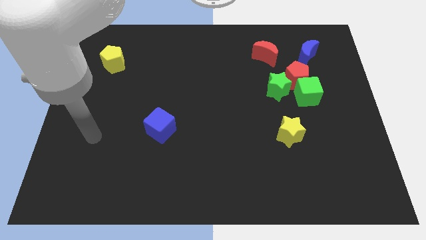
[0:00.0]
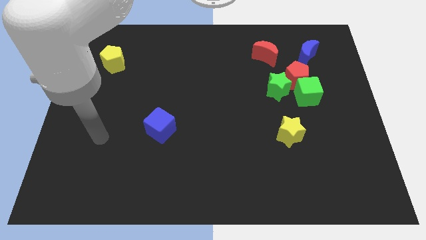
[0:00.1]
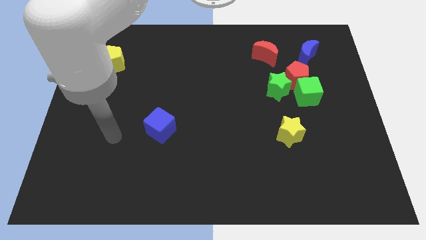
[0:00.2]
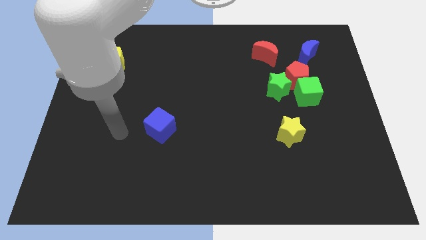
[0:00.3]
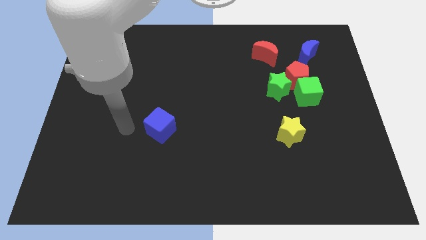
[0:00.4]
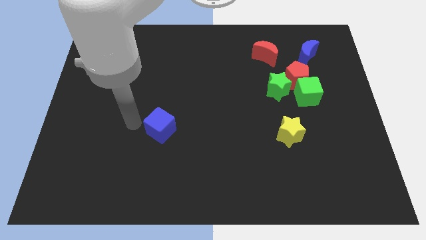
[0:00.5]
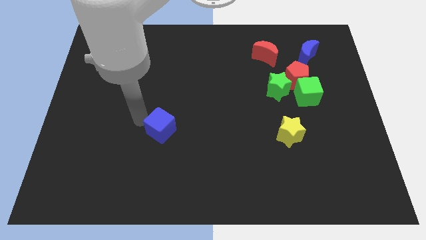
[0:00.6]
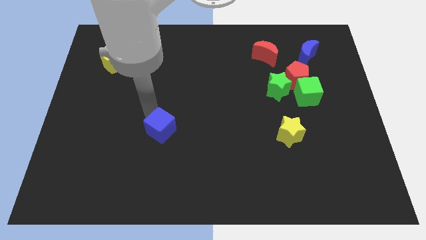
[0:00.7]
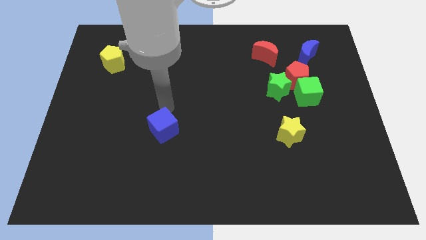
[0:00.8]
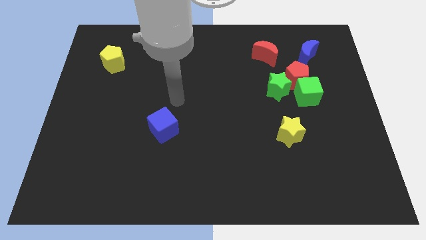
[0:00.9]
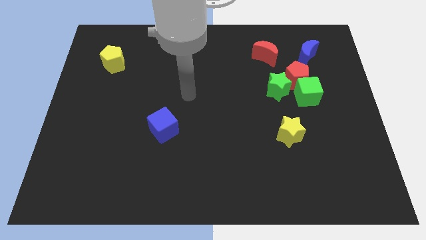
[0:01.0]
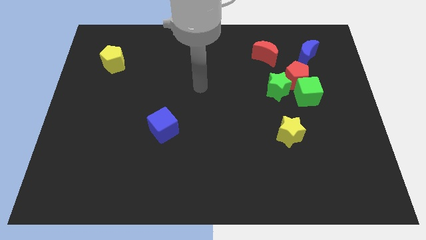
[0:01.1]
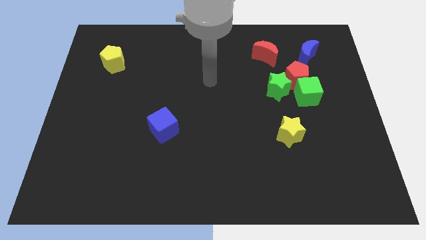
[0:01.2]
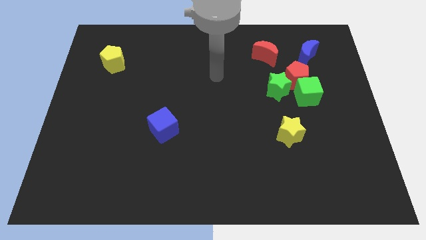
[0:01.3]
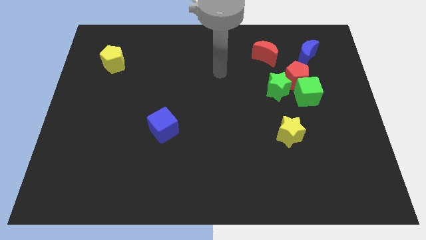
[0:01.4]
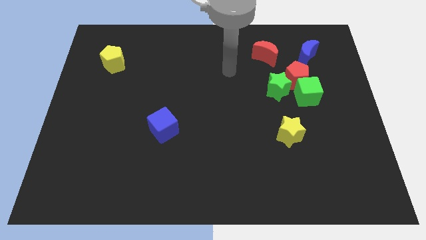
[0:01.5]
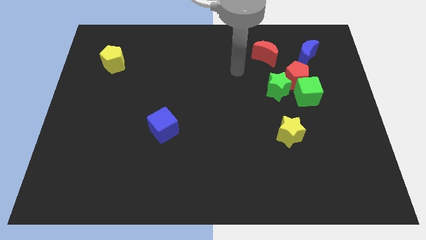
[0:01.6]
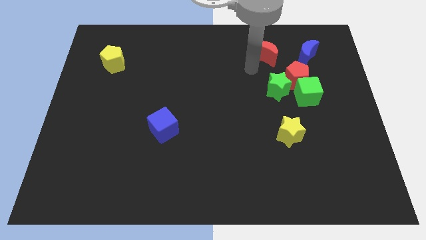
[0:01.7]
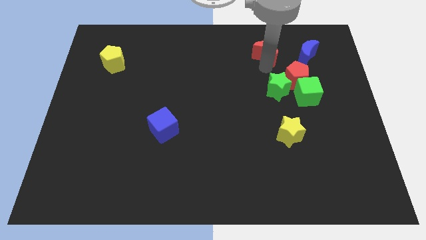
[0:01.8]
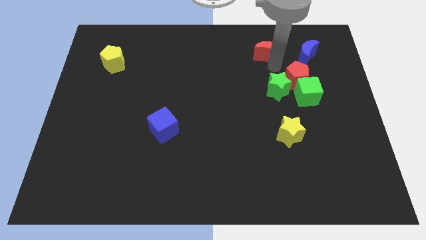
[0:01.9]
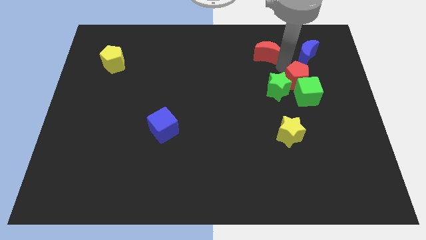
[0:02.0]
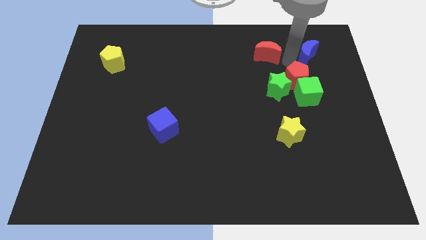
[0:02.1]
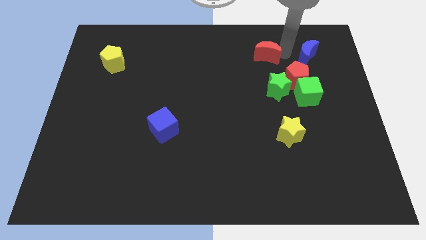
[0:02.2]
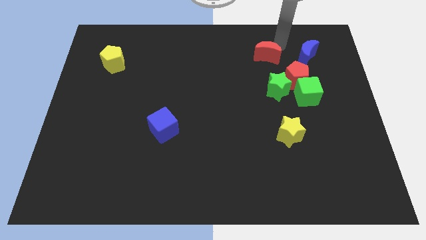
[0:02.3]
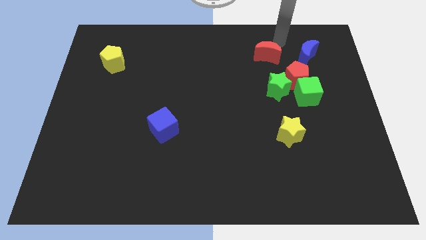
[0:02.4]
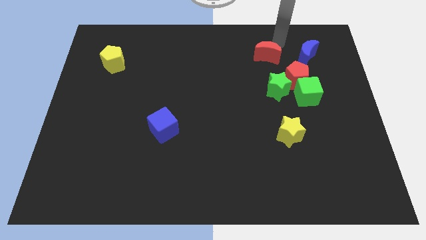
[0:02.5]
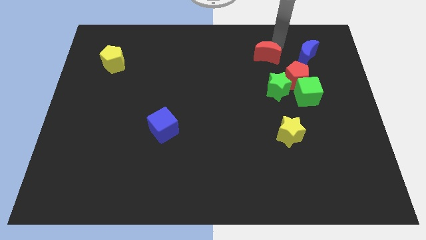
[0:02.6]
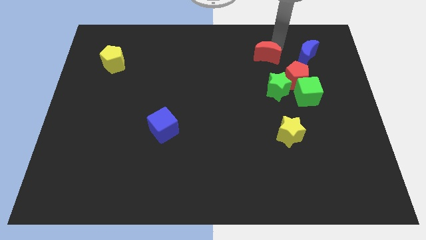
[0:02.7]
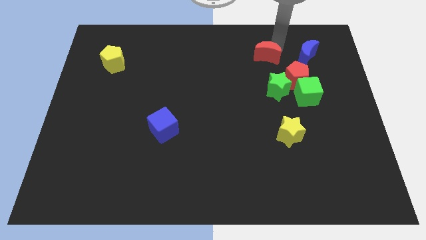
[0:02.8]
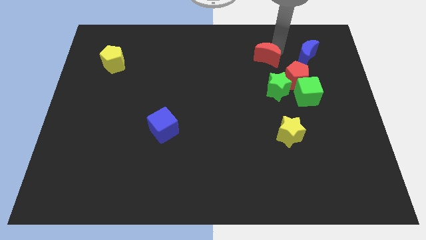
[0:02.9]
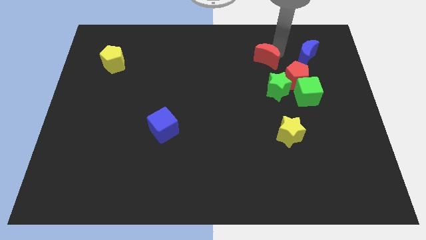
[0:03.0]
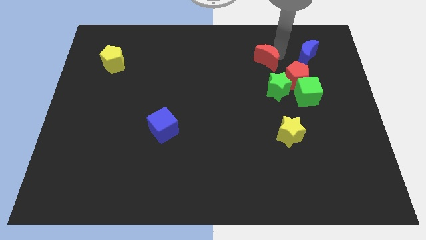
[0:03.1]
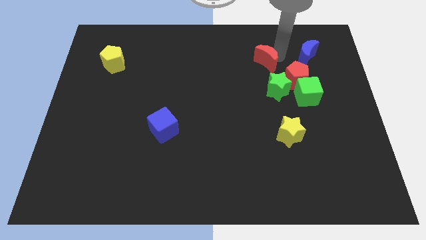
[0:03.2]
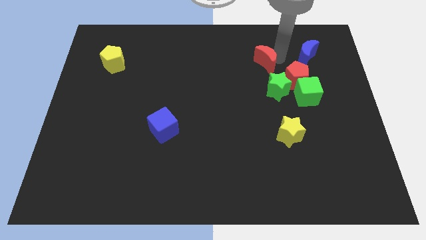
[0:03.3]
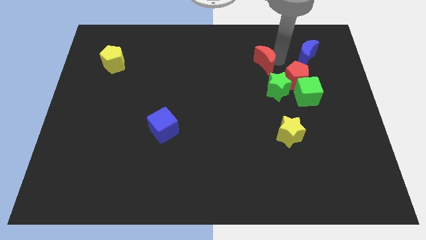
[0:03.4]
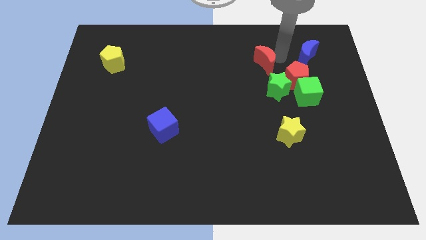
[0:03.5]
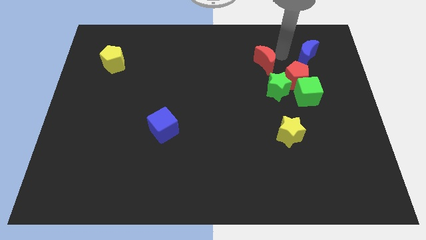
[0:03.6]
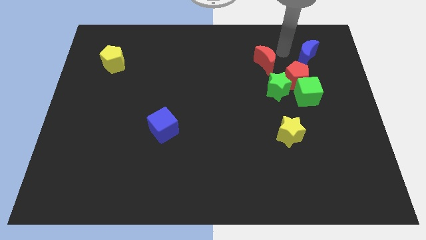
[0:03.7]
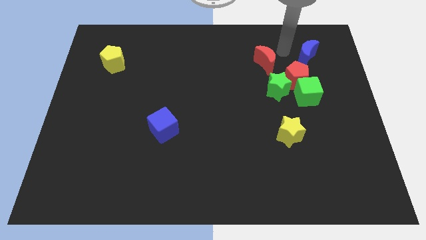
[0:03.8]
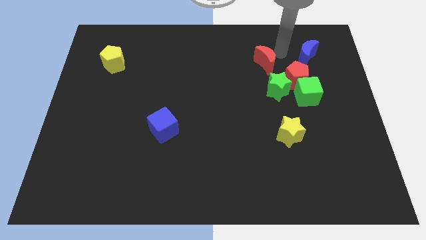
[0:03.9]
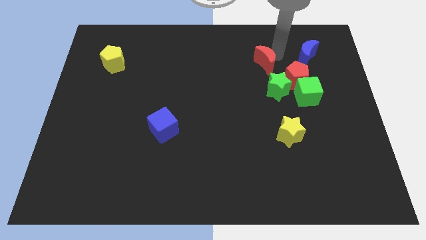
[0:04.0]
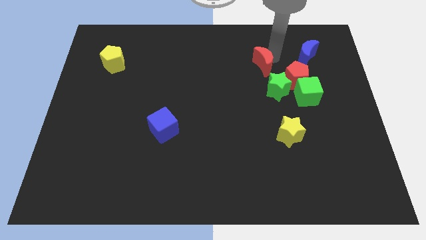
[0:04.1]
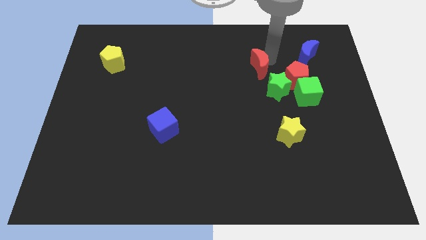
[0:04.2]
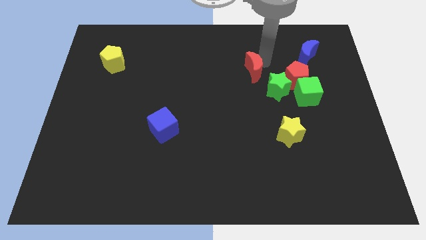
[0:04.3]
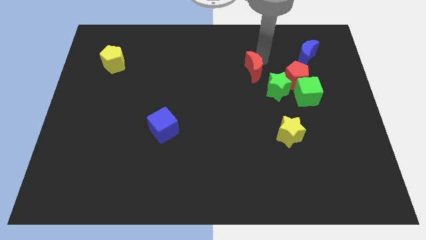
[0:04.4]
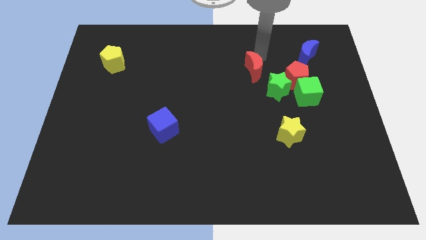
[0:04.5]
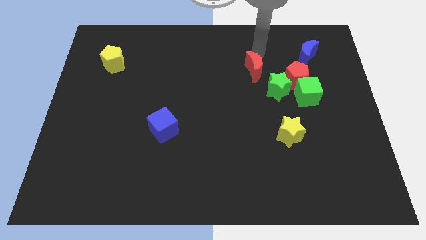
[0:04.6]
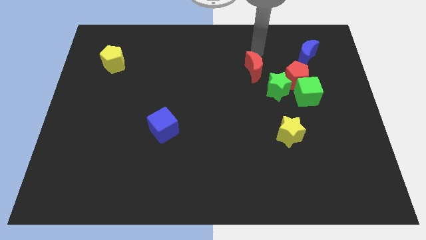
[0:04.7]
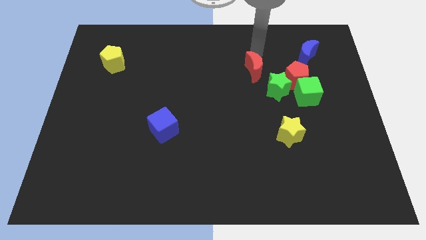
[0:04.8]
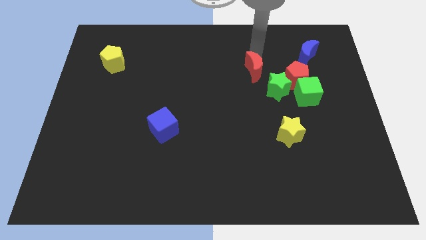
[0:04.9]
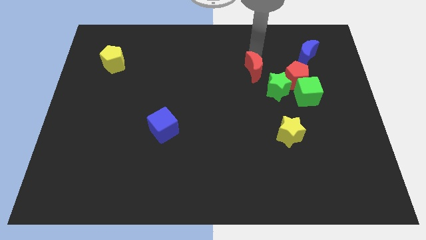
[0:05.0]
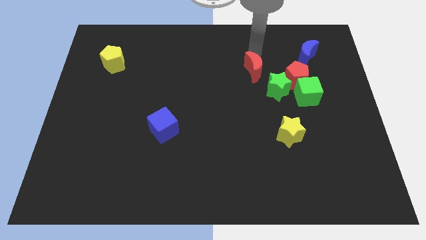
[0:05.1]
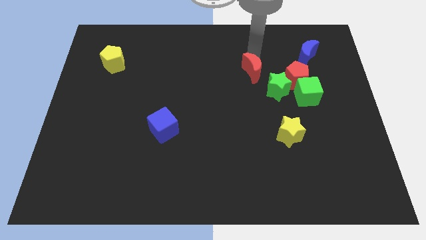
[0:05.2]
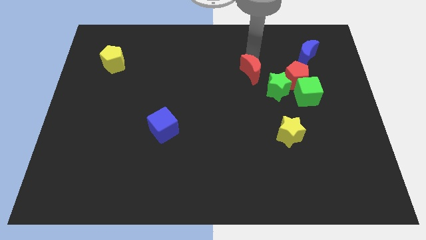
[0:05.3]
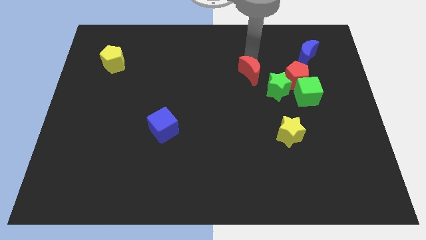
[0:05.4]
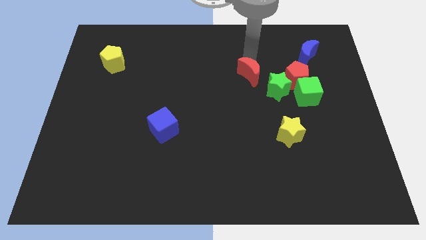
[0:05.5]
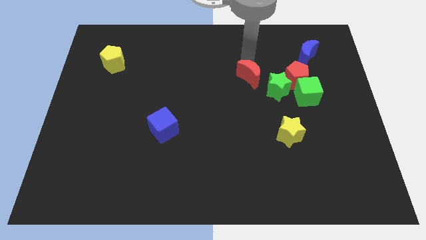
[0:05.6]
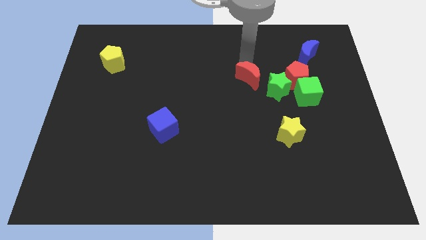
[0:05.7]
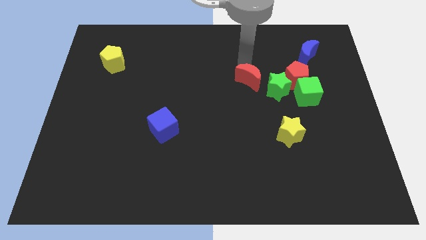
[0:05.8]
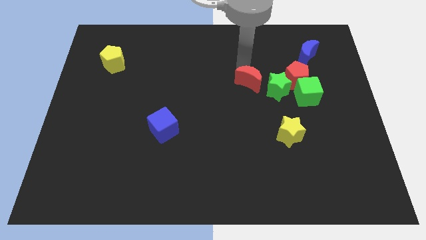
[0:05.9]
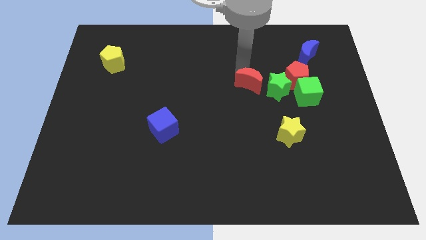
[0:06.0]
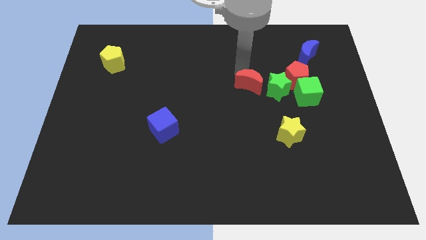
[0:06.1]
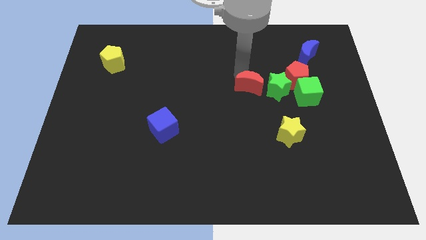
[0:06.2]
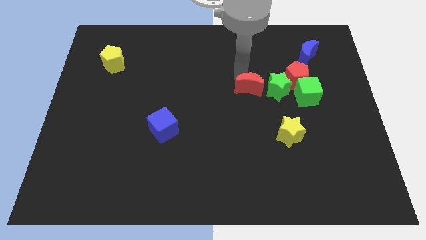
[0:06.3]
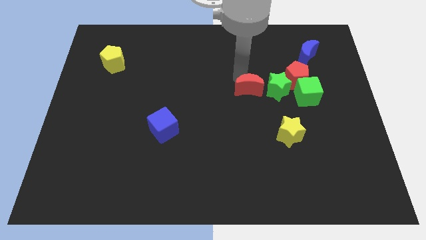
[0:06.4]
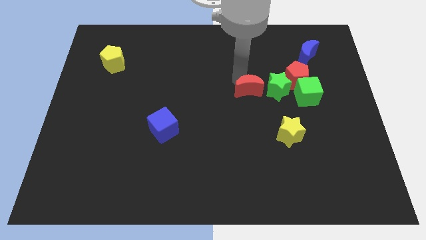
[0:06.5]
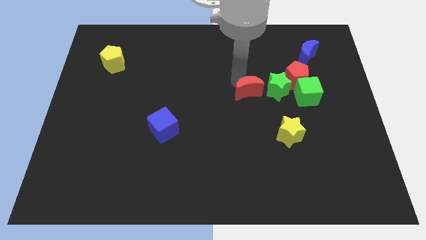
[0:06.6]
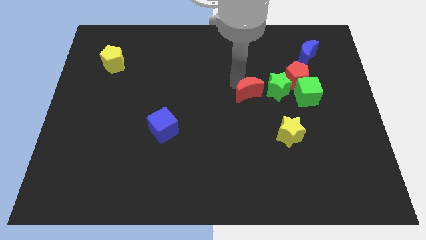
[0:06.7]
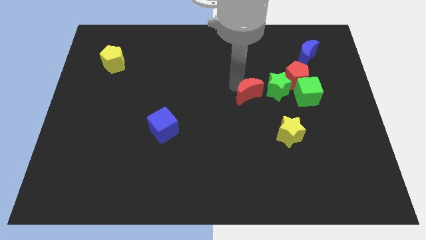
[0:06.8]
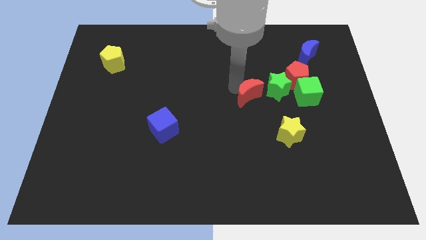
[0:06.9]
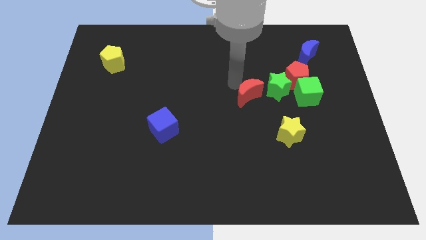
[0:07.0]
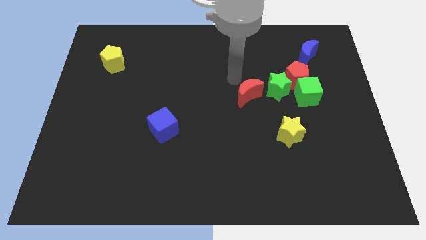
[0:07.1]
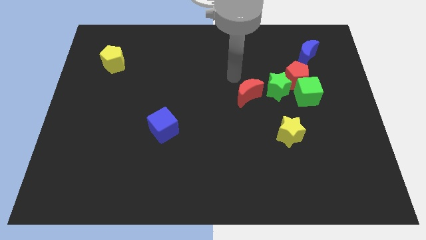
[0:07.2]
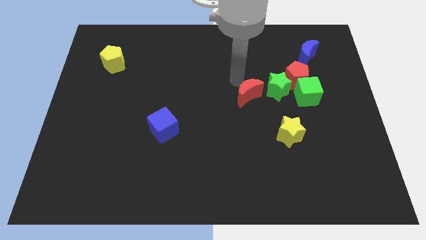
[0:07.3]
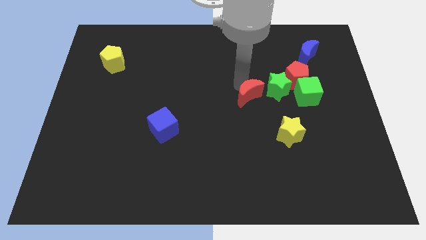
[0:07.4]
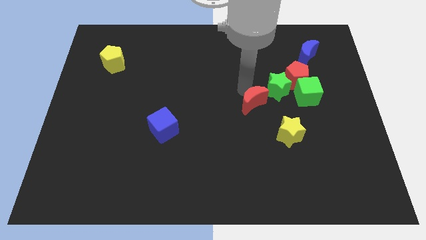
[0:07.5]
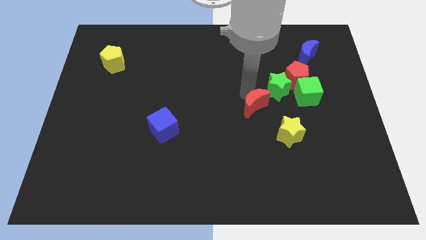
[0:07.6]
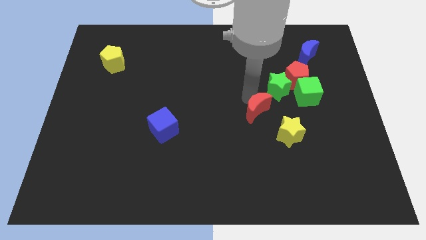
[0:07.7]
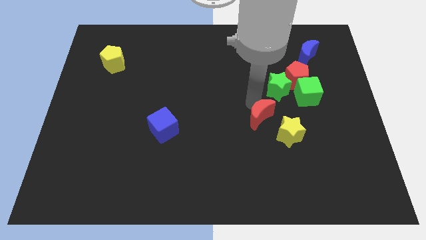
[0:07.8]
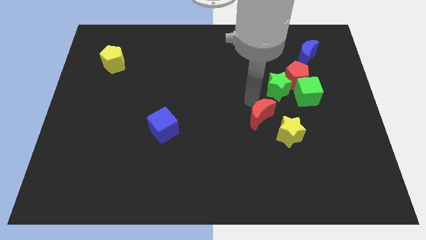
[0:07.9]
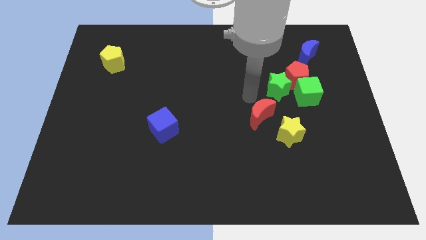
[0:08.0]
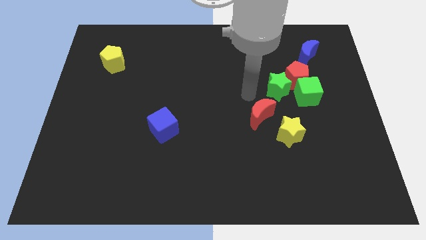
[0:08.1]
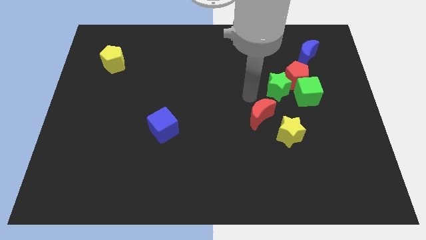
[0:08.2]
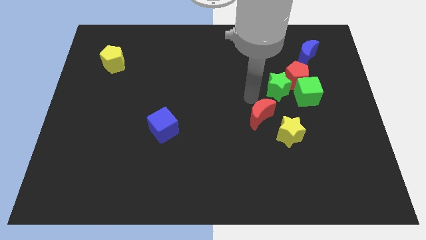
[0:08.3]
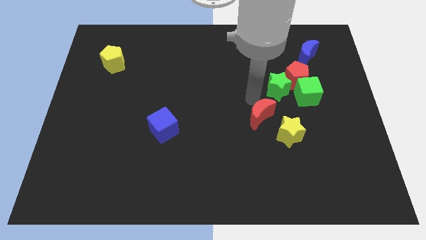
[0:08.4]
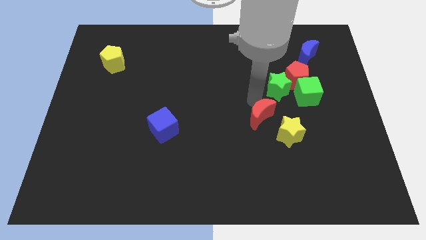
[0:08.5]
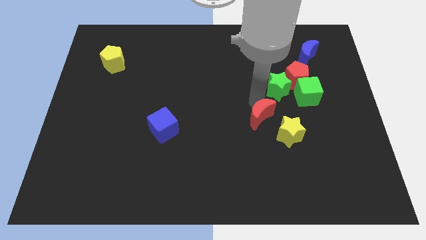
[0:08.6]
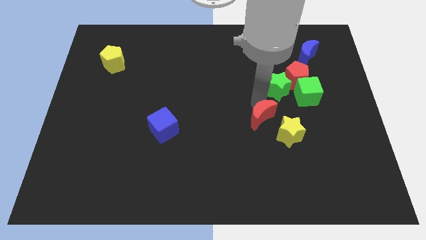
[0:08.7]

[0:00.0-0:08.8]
push the red moon downwards
